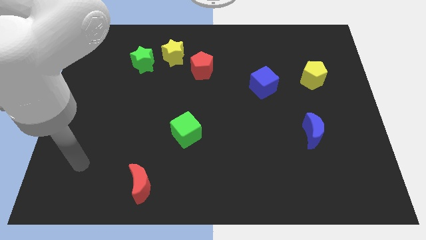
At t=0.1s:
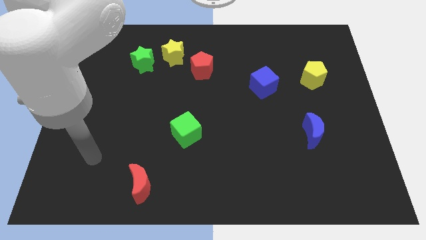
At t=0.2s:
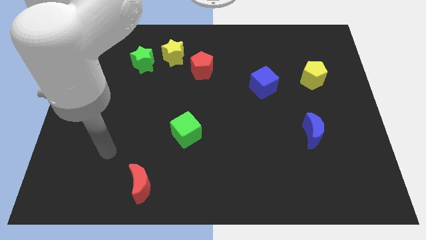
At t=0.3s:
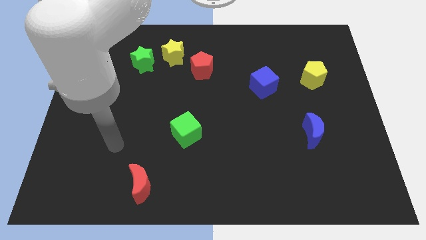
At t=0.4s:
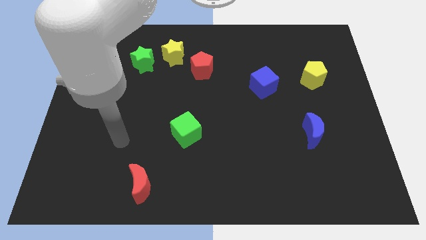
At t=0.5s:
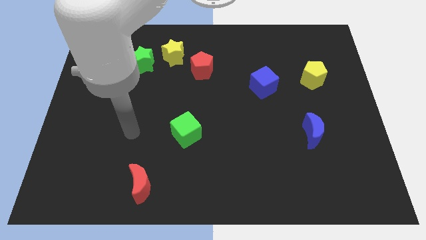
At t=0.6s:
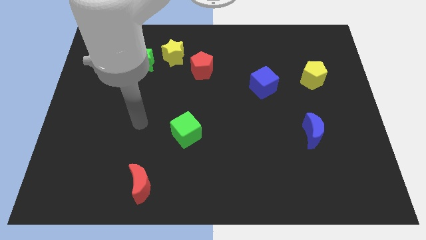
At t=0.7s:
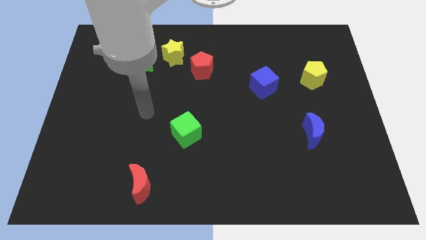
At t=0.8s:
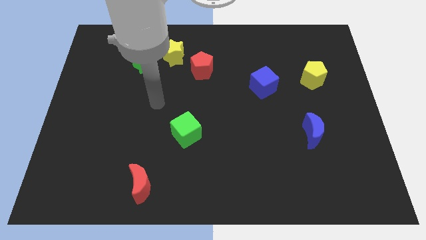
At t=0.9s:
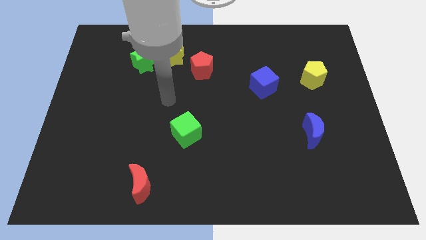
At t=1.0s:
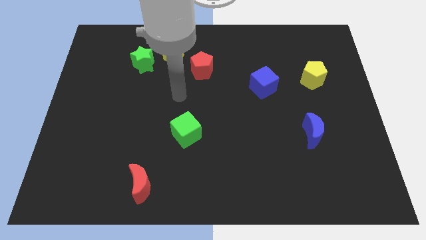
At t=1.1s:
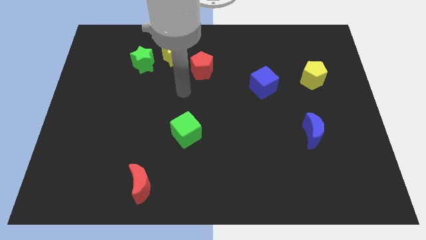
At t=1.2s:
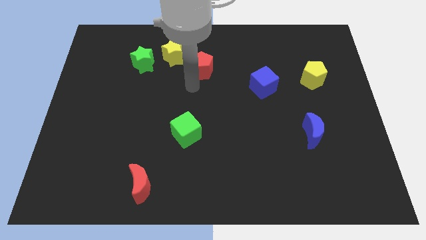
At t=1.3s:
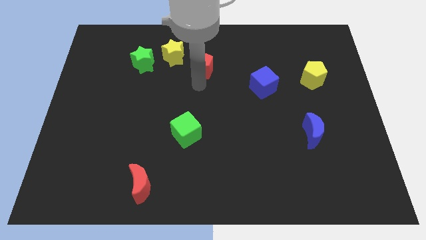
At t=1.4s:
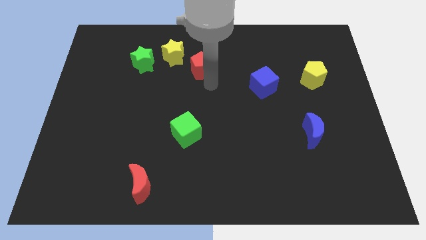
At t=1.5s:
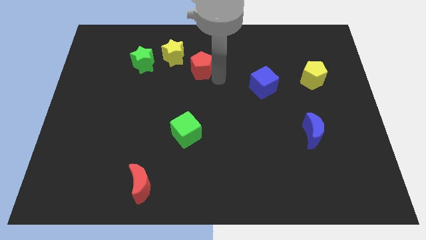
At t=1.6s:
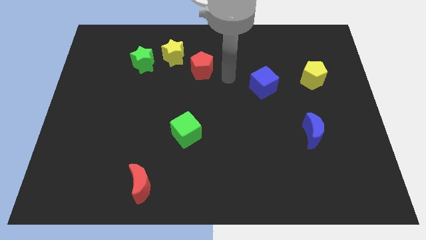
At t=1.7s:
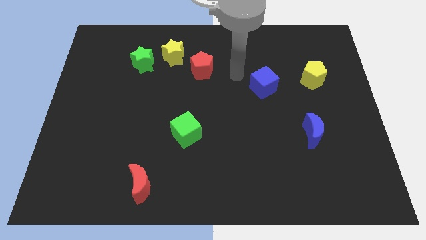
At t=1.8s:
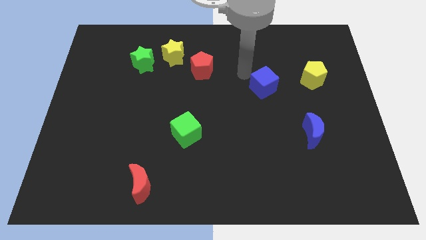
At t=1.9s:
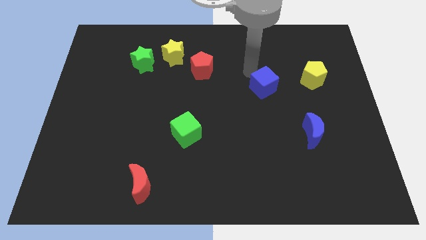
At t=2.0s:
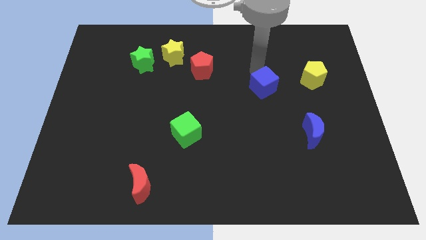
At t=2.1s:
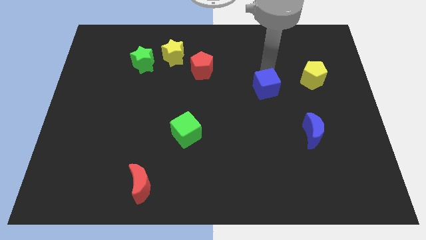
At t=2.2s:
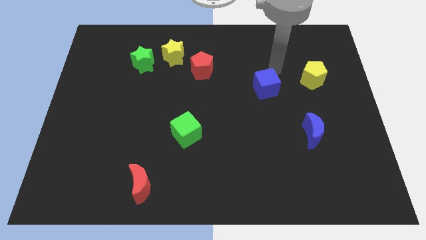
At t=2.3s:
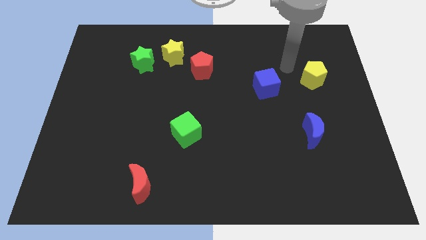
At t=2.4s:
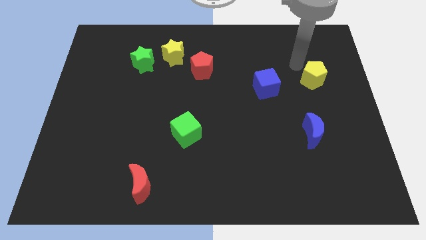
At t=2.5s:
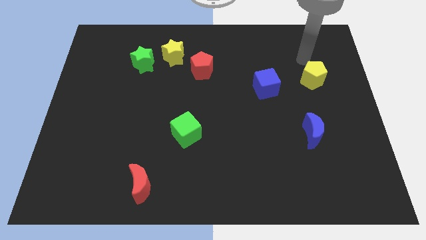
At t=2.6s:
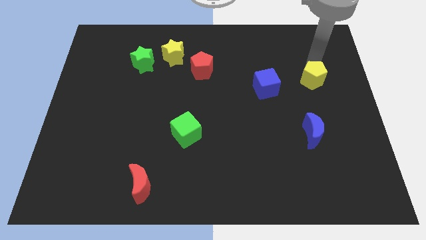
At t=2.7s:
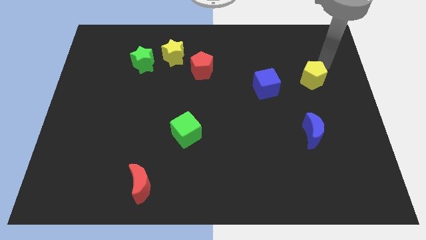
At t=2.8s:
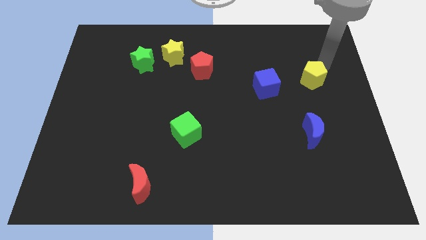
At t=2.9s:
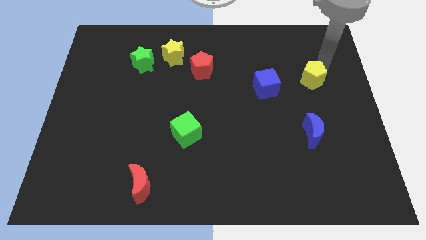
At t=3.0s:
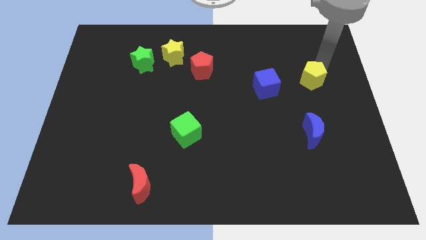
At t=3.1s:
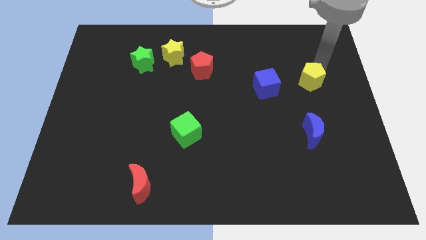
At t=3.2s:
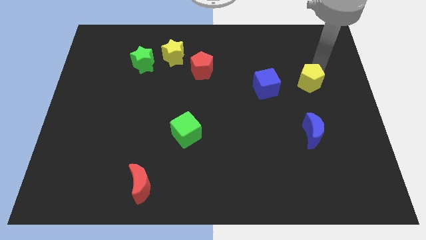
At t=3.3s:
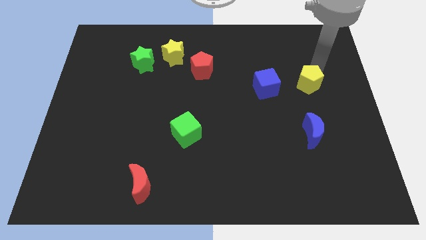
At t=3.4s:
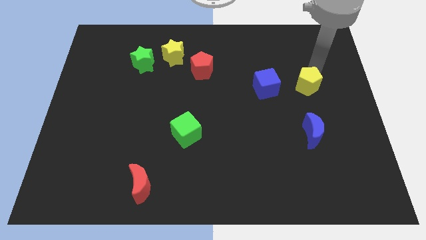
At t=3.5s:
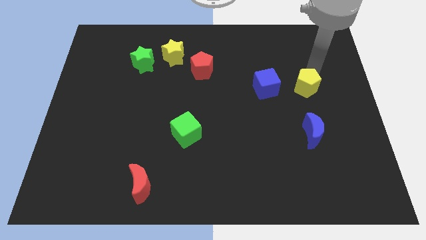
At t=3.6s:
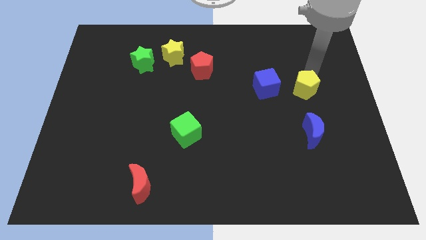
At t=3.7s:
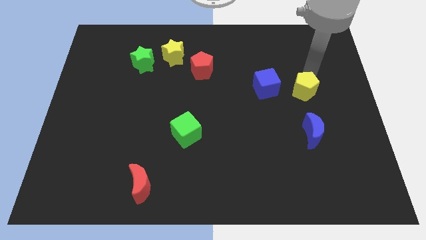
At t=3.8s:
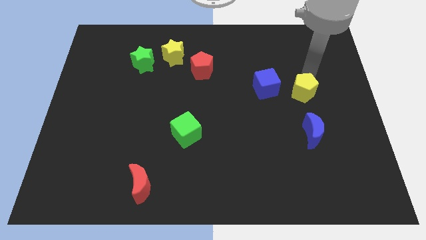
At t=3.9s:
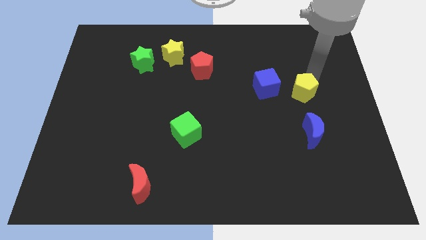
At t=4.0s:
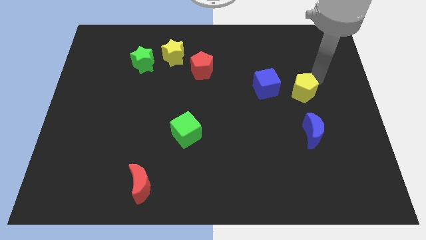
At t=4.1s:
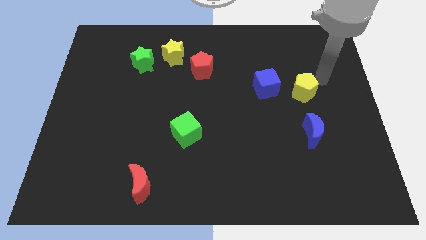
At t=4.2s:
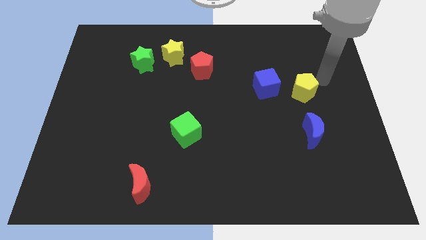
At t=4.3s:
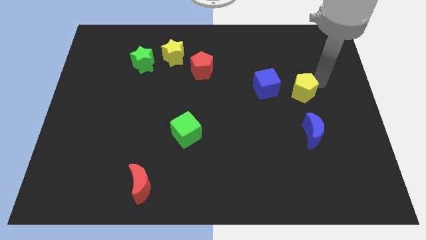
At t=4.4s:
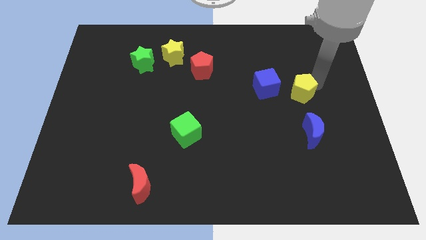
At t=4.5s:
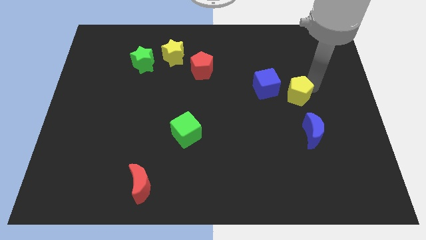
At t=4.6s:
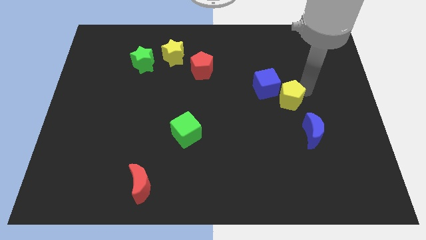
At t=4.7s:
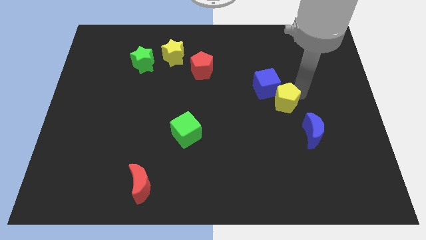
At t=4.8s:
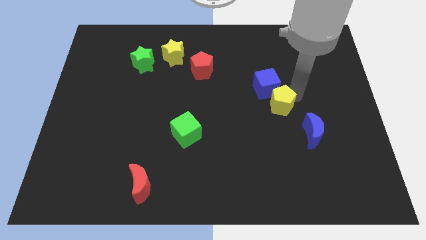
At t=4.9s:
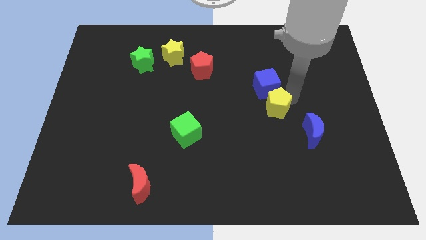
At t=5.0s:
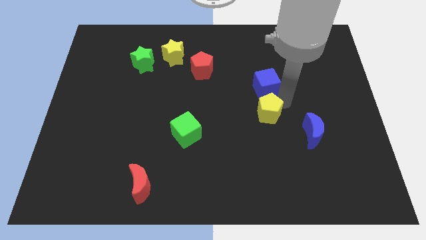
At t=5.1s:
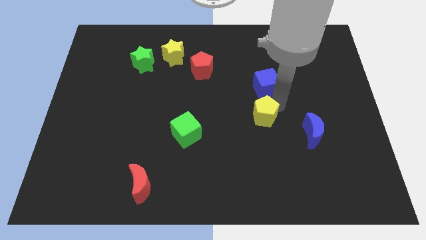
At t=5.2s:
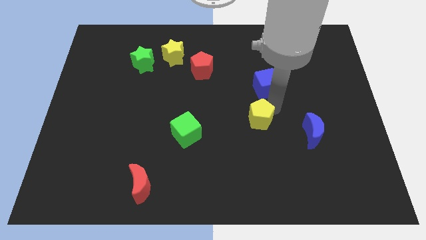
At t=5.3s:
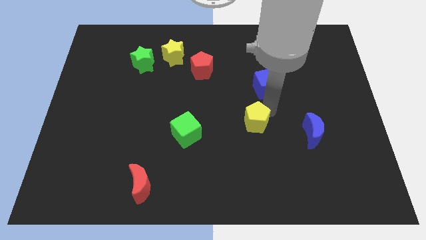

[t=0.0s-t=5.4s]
move the yellow pentagon diagonally down and to the left

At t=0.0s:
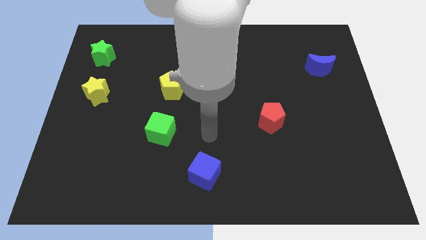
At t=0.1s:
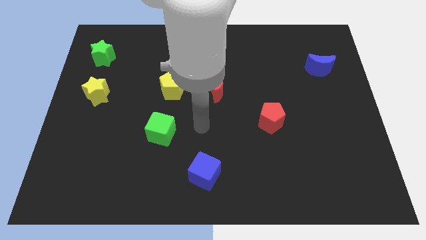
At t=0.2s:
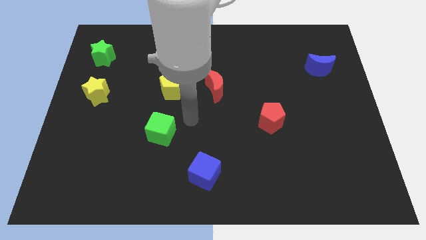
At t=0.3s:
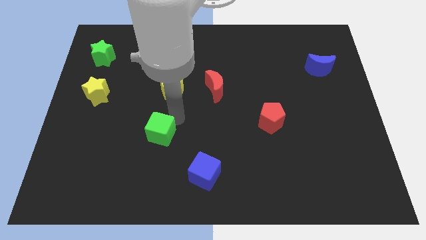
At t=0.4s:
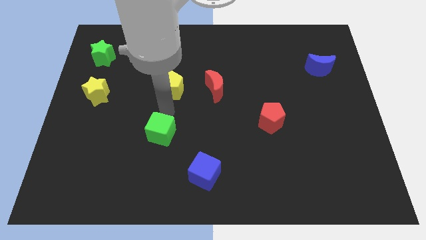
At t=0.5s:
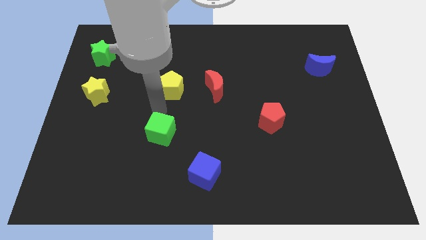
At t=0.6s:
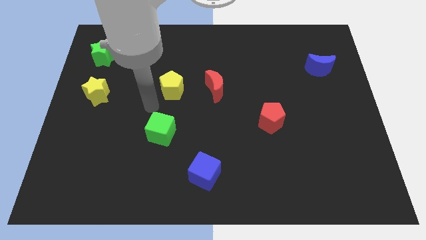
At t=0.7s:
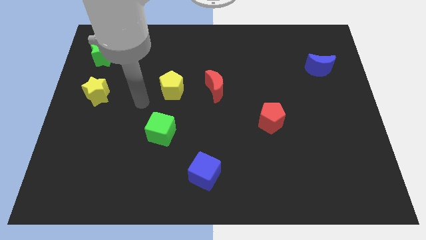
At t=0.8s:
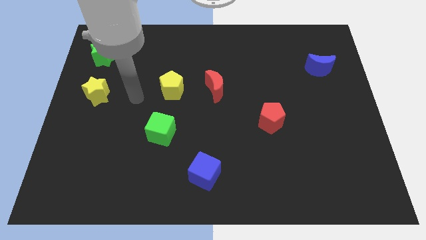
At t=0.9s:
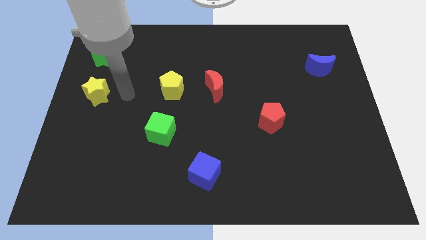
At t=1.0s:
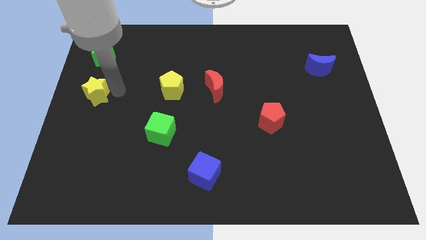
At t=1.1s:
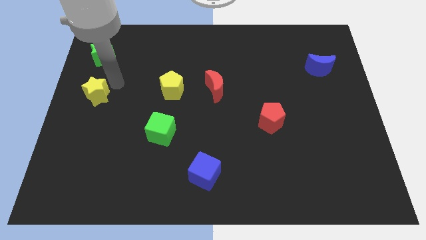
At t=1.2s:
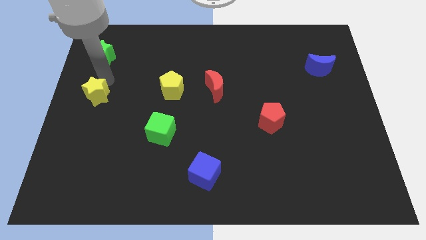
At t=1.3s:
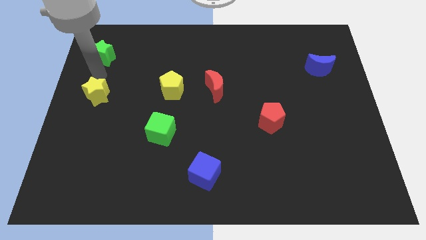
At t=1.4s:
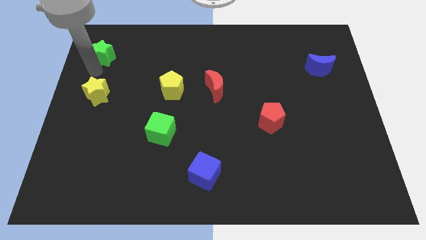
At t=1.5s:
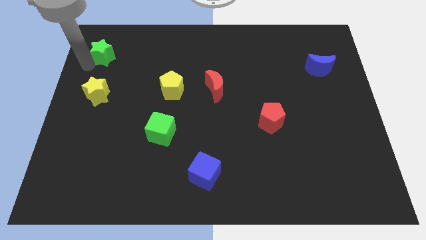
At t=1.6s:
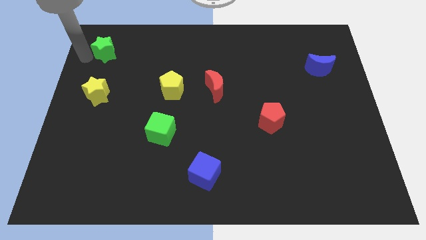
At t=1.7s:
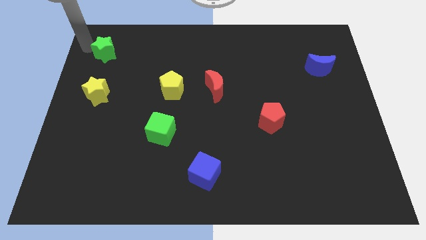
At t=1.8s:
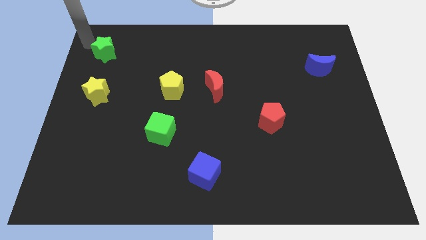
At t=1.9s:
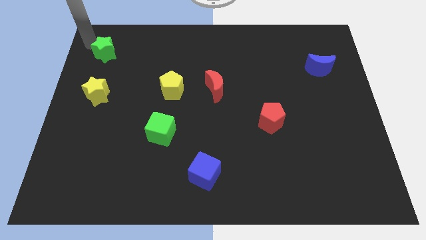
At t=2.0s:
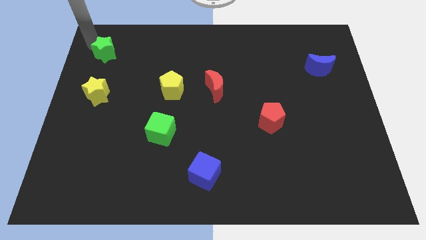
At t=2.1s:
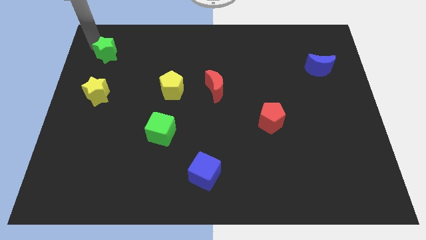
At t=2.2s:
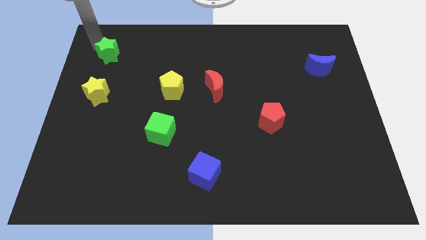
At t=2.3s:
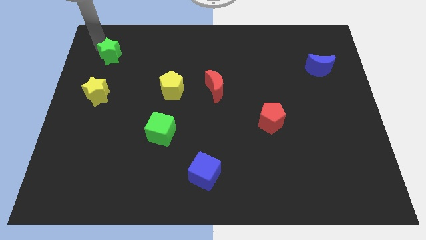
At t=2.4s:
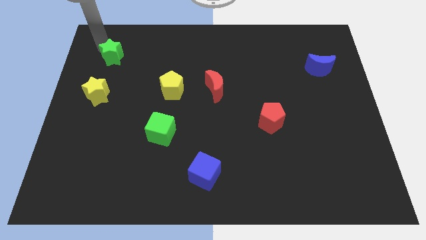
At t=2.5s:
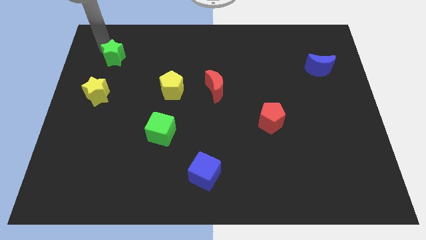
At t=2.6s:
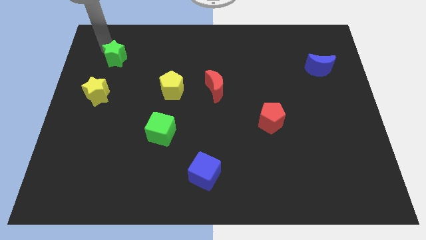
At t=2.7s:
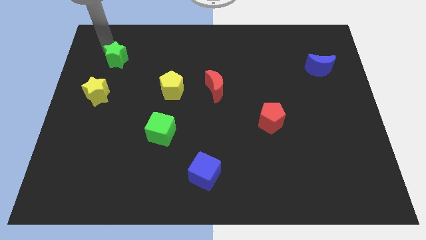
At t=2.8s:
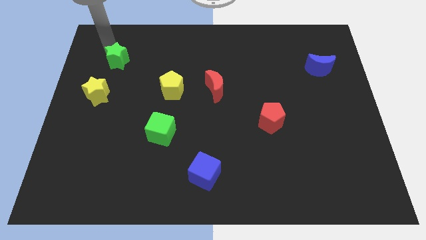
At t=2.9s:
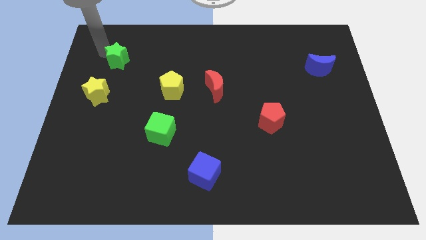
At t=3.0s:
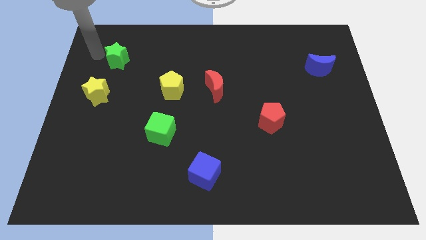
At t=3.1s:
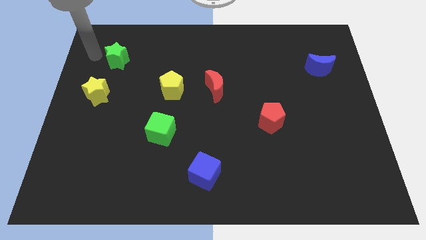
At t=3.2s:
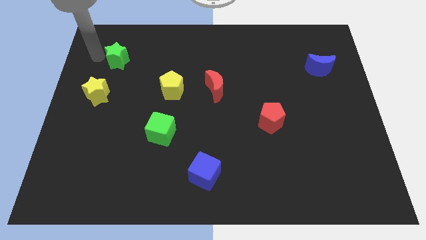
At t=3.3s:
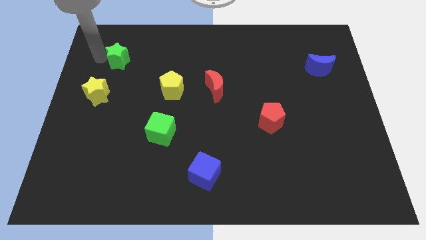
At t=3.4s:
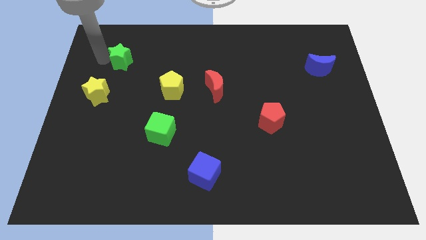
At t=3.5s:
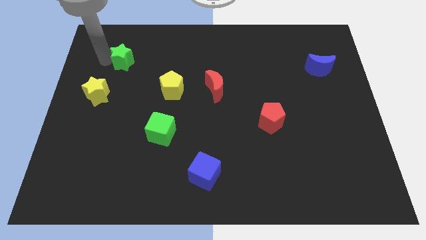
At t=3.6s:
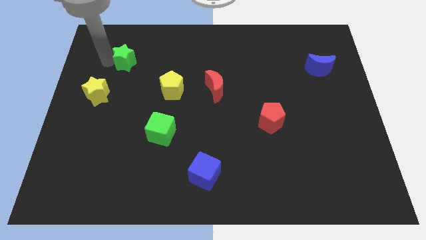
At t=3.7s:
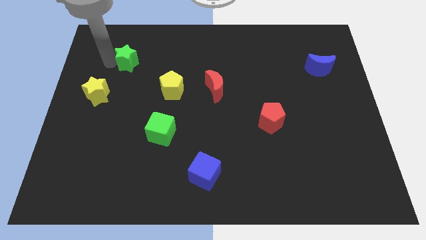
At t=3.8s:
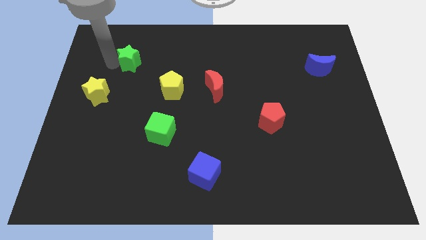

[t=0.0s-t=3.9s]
slightly move the green star to the right
